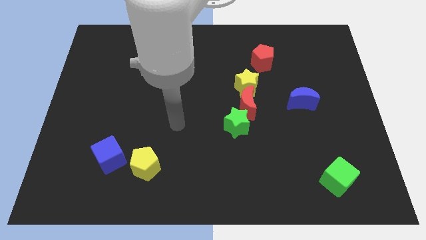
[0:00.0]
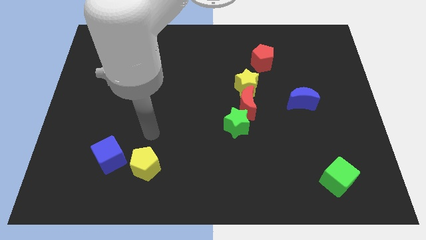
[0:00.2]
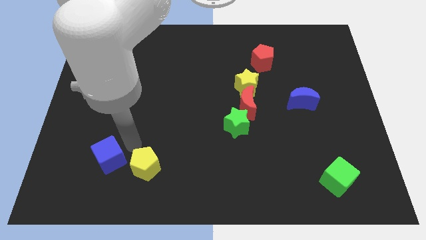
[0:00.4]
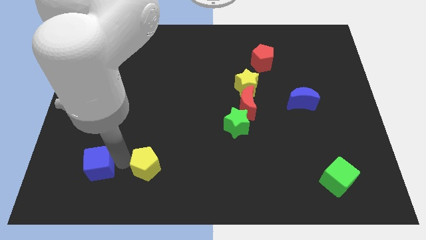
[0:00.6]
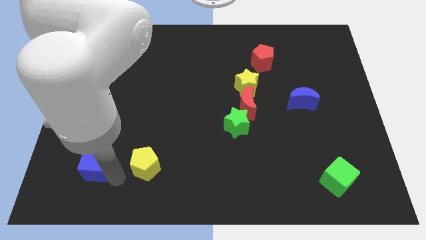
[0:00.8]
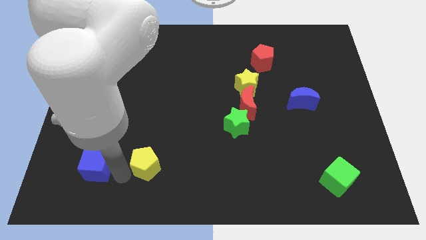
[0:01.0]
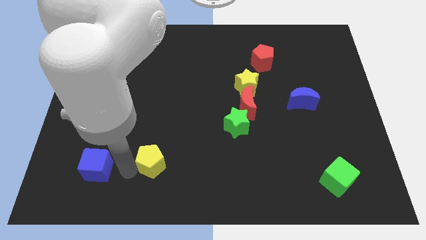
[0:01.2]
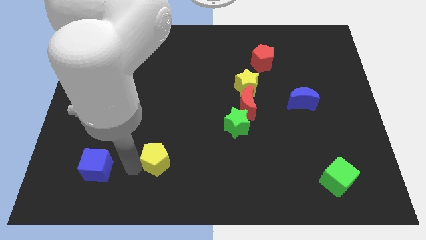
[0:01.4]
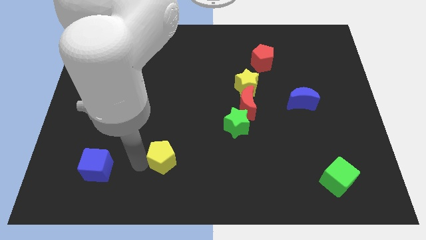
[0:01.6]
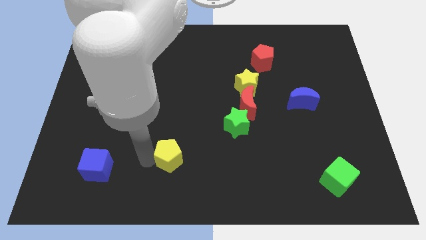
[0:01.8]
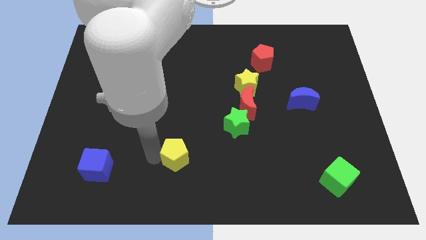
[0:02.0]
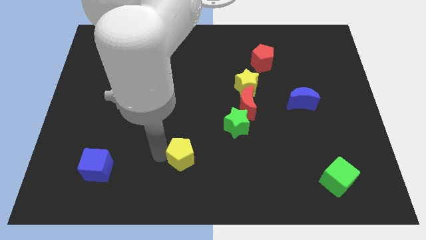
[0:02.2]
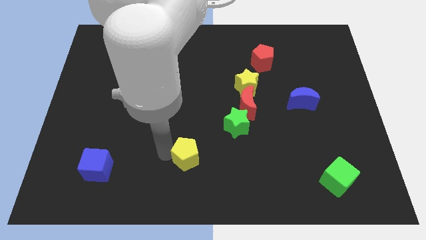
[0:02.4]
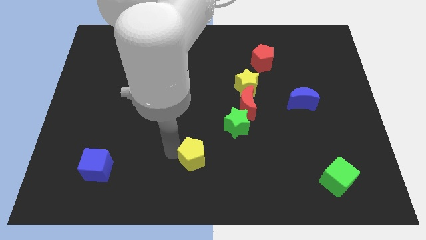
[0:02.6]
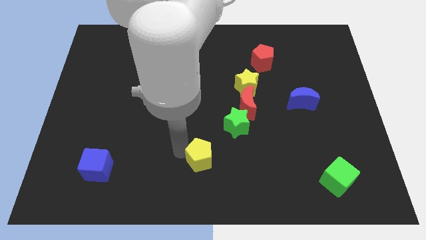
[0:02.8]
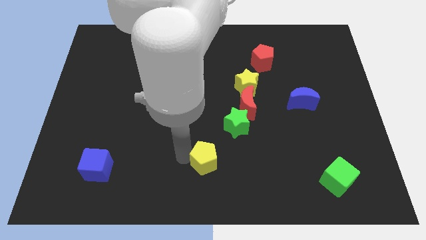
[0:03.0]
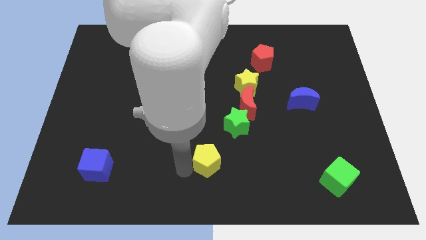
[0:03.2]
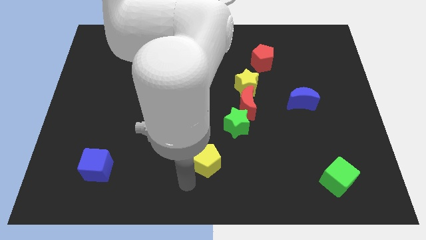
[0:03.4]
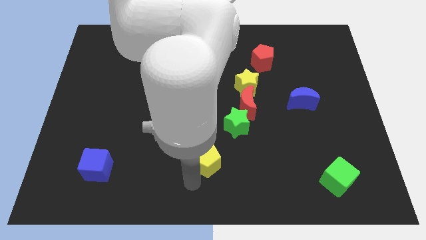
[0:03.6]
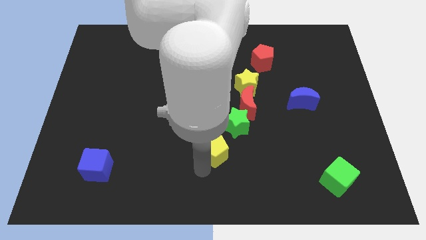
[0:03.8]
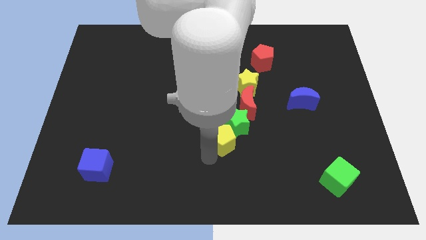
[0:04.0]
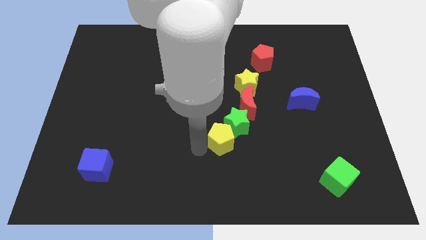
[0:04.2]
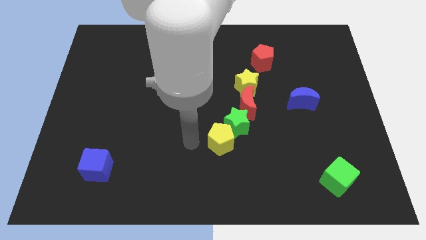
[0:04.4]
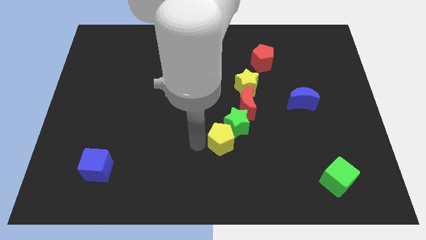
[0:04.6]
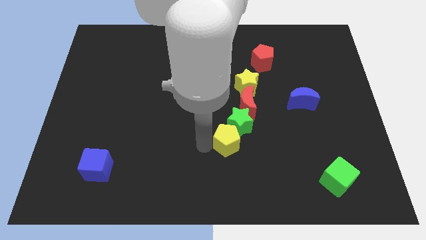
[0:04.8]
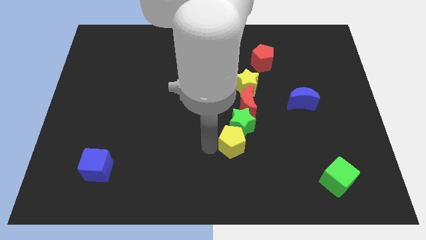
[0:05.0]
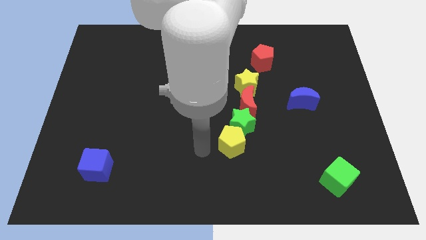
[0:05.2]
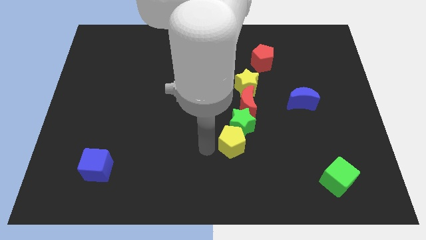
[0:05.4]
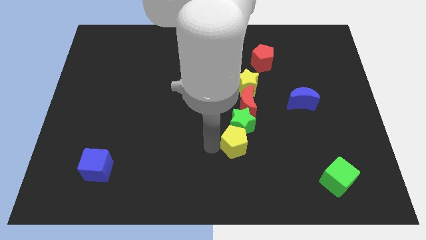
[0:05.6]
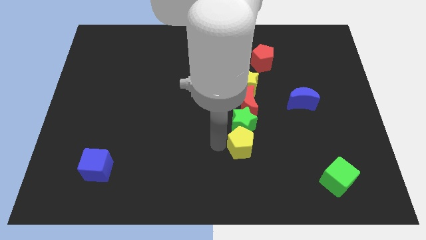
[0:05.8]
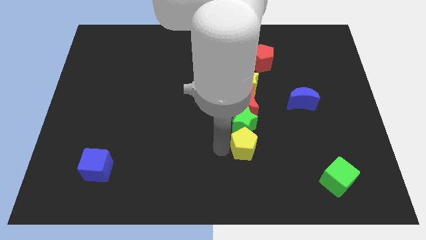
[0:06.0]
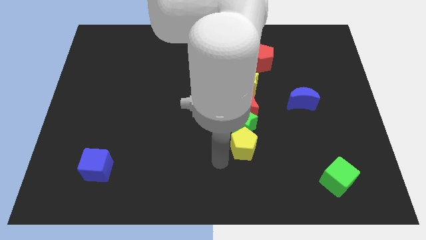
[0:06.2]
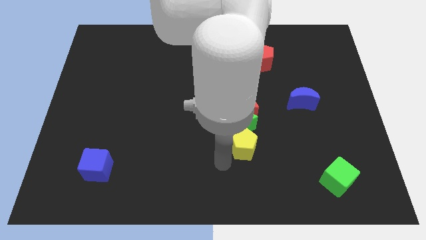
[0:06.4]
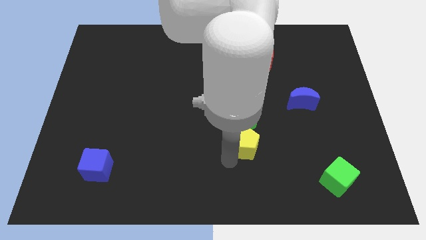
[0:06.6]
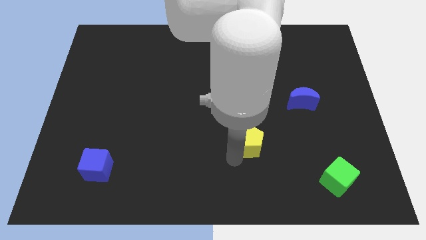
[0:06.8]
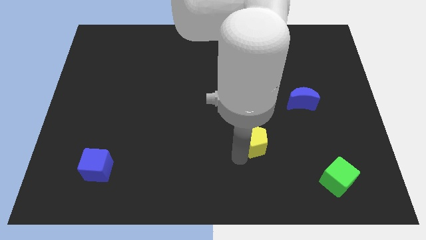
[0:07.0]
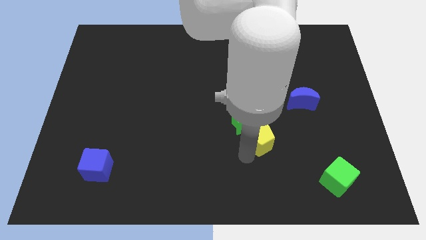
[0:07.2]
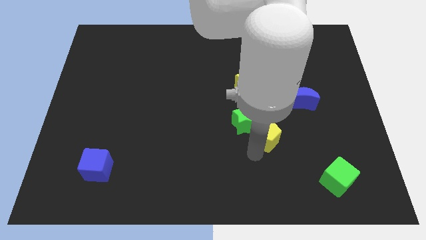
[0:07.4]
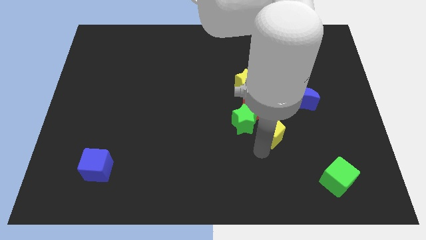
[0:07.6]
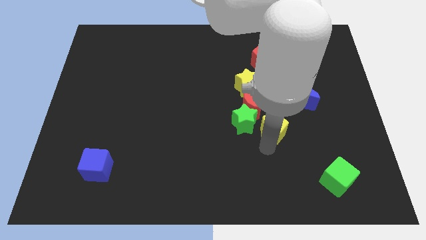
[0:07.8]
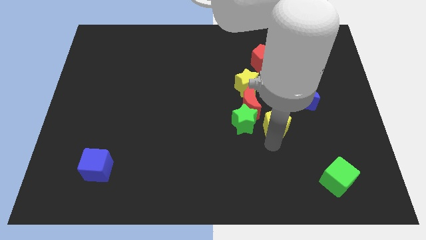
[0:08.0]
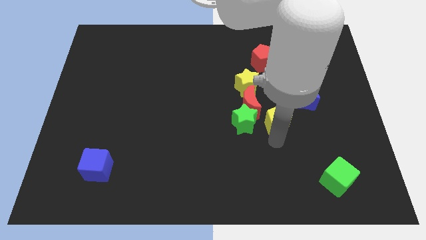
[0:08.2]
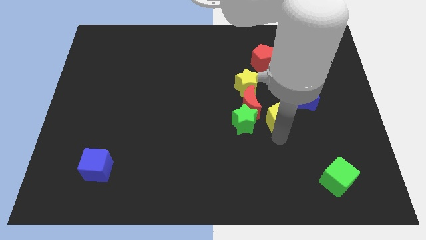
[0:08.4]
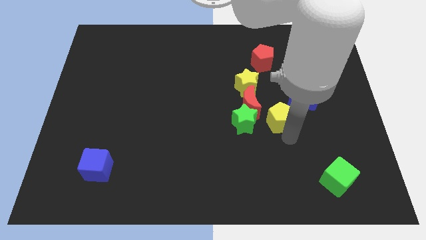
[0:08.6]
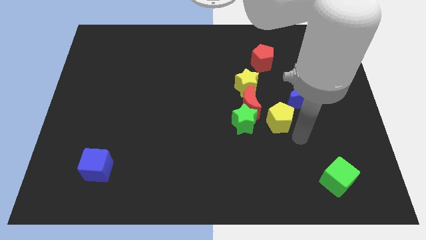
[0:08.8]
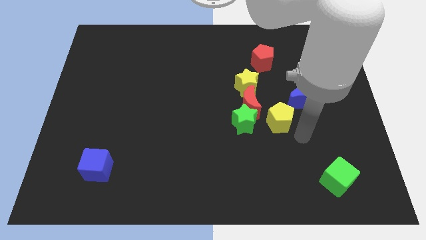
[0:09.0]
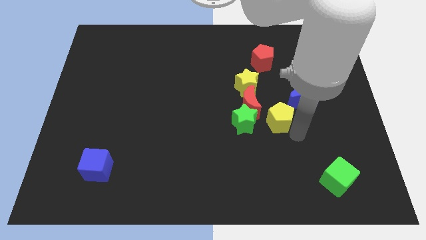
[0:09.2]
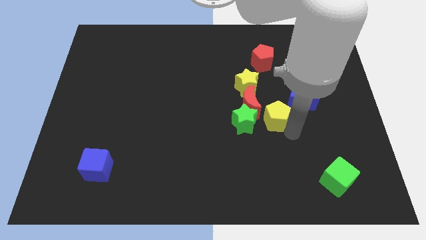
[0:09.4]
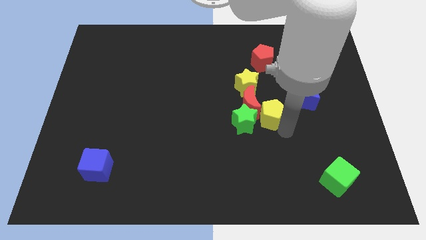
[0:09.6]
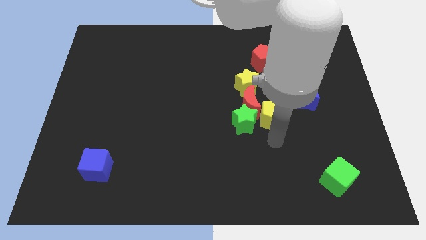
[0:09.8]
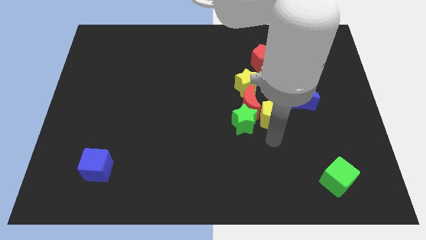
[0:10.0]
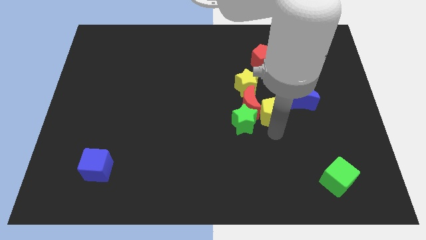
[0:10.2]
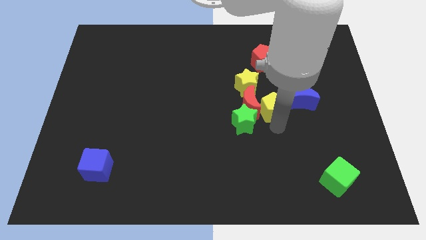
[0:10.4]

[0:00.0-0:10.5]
slide the yellow pentagon to the top right side of the red moon

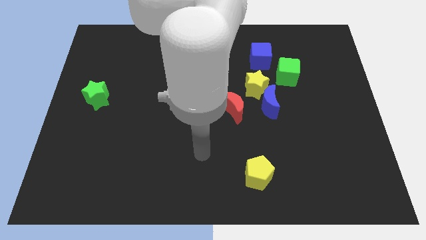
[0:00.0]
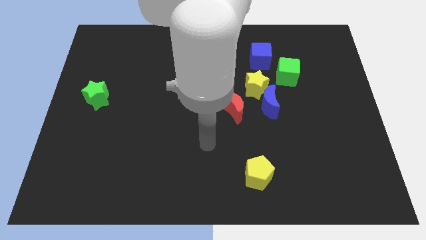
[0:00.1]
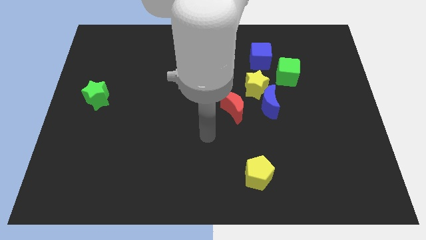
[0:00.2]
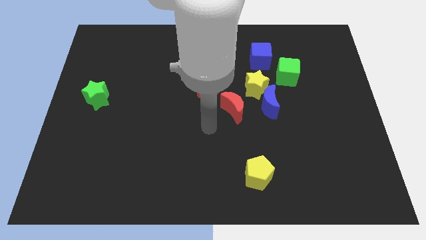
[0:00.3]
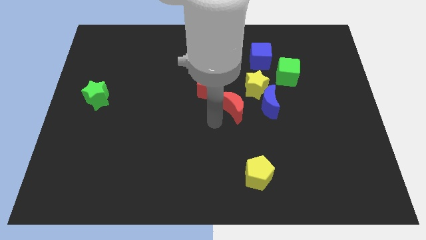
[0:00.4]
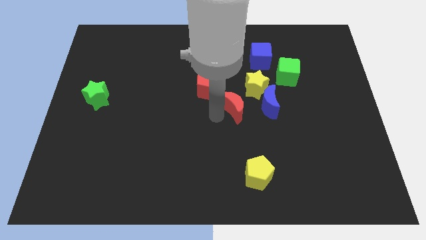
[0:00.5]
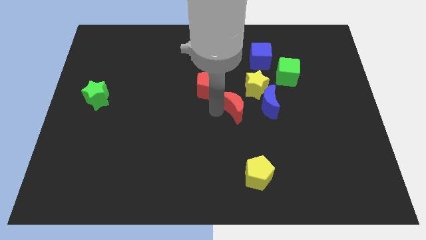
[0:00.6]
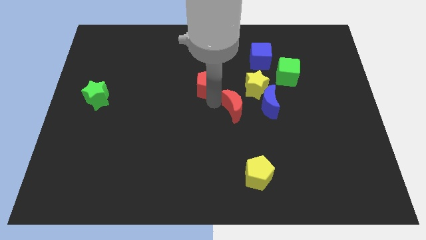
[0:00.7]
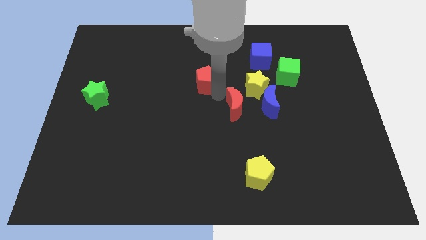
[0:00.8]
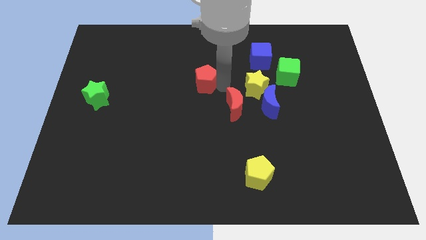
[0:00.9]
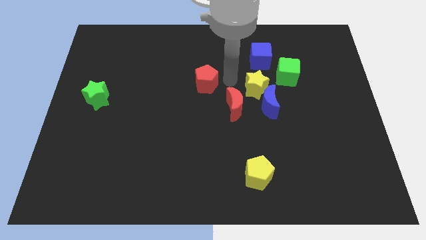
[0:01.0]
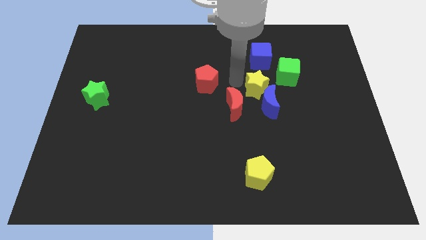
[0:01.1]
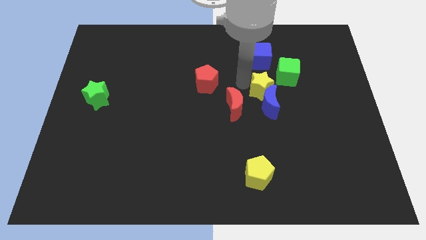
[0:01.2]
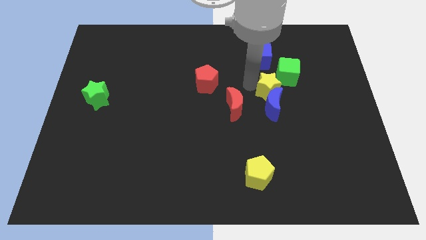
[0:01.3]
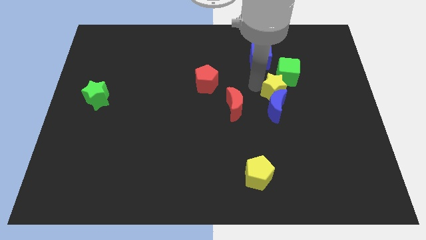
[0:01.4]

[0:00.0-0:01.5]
put the yellow star just right of the red moon

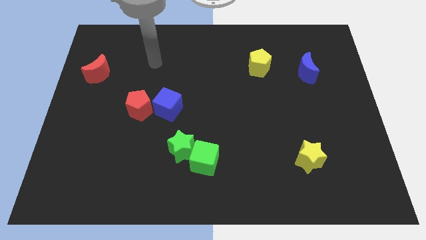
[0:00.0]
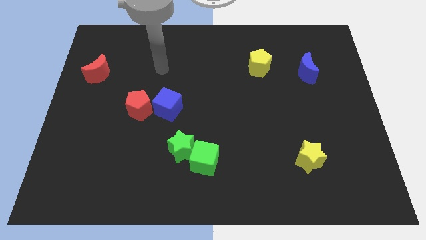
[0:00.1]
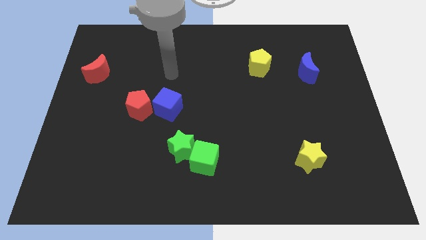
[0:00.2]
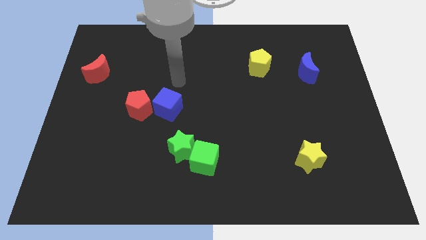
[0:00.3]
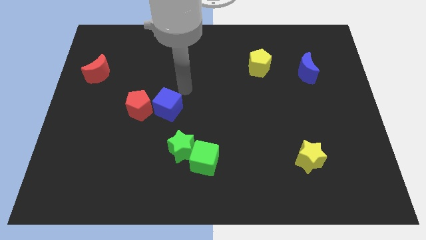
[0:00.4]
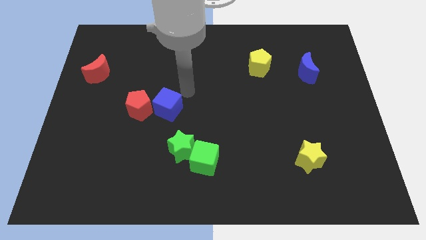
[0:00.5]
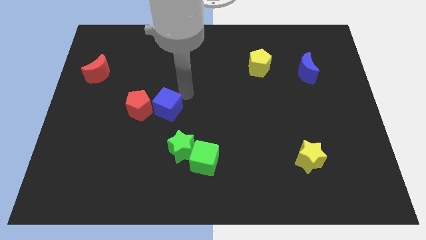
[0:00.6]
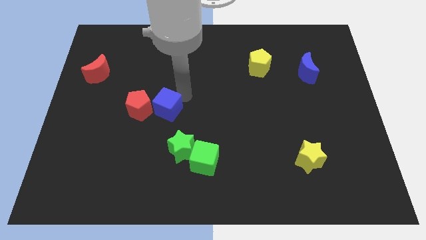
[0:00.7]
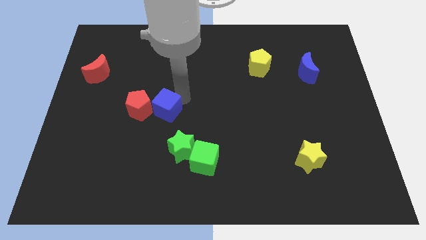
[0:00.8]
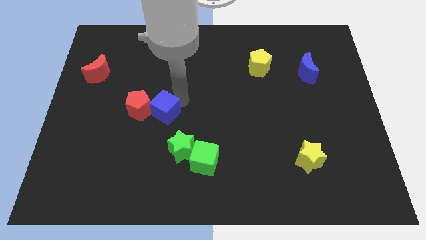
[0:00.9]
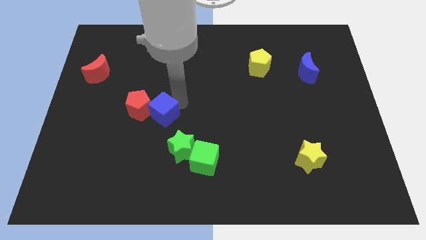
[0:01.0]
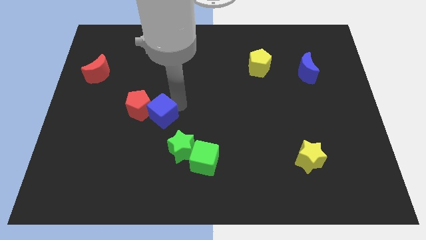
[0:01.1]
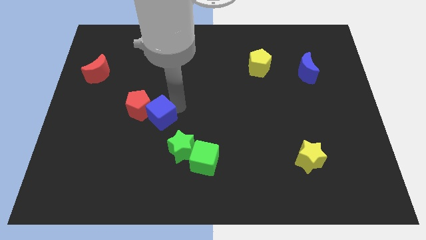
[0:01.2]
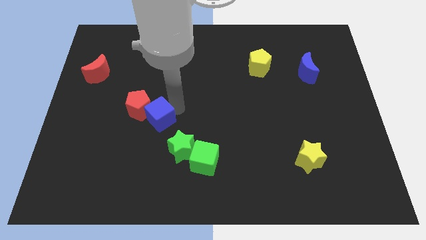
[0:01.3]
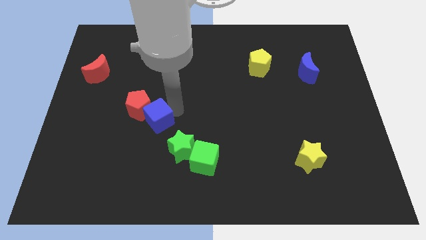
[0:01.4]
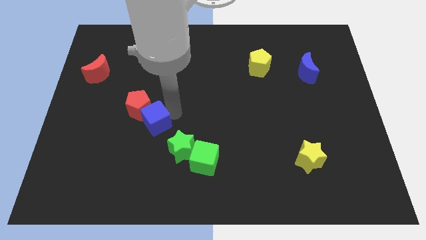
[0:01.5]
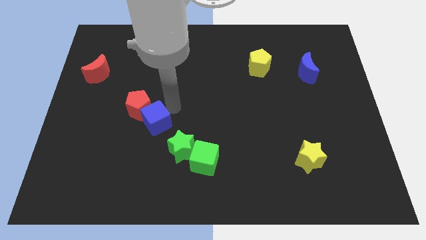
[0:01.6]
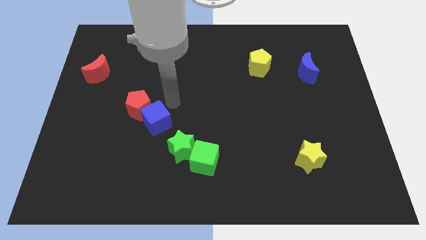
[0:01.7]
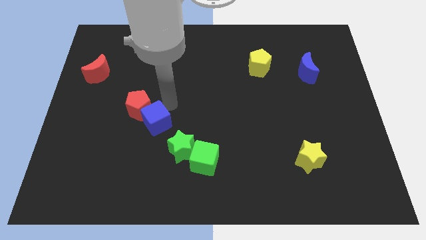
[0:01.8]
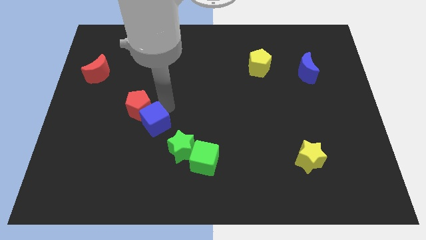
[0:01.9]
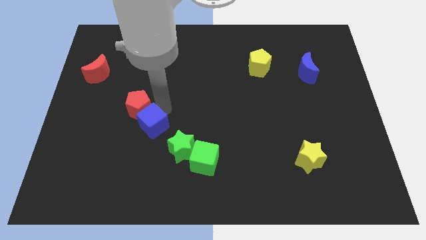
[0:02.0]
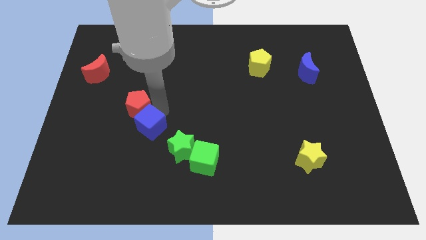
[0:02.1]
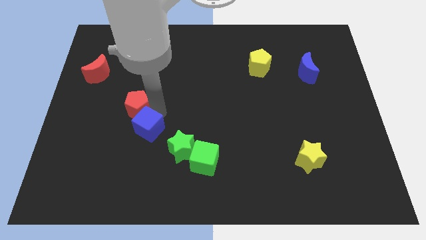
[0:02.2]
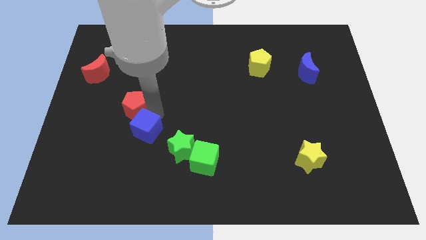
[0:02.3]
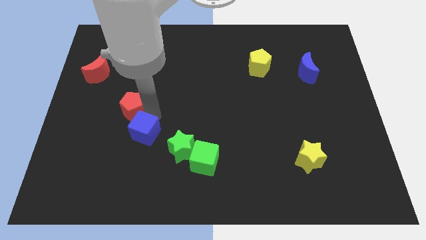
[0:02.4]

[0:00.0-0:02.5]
push the blue cube left of the green star
